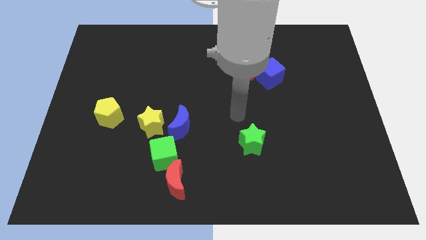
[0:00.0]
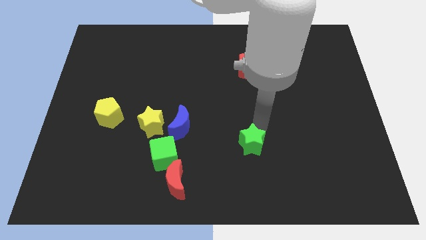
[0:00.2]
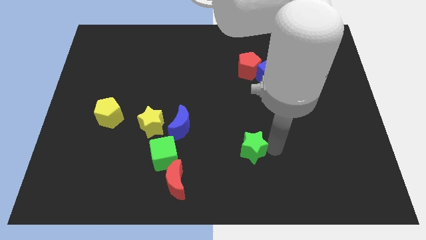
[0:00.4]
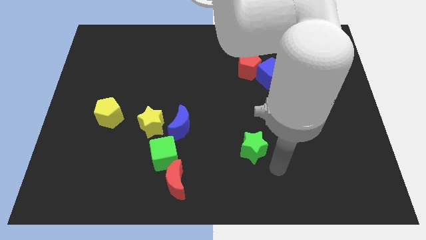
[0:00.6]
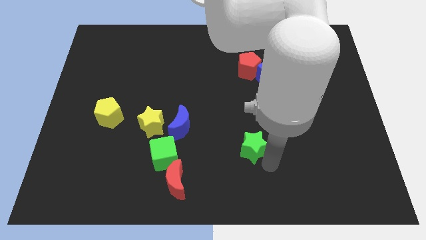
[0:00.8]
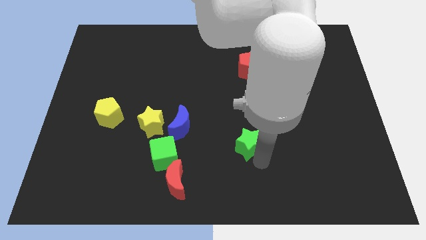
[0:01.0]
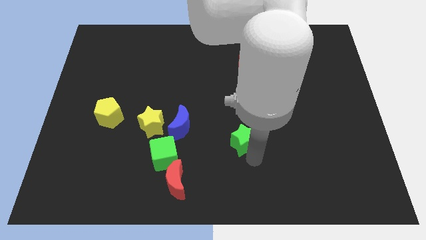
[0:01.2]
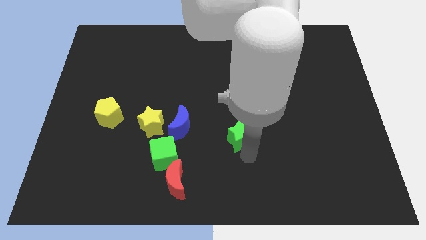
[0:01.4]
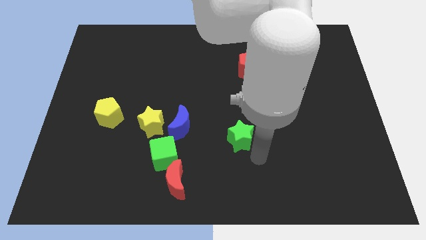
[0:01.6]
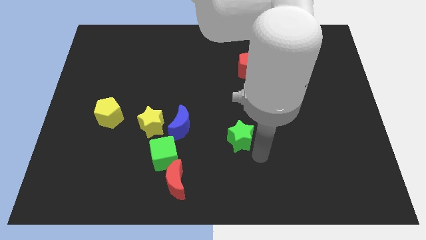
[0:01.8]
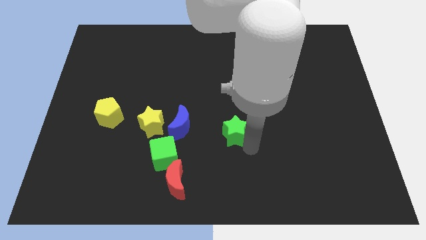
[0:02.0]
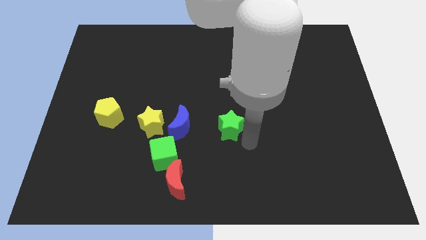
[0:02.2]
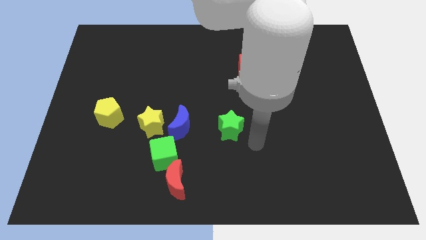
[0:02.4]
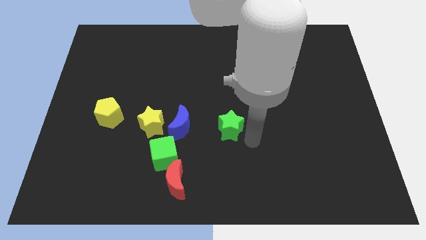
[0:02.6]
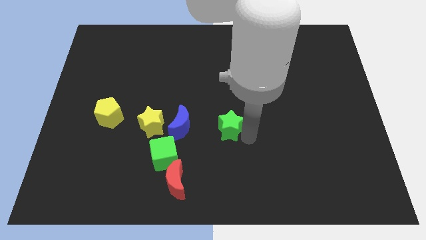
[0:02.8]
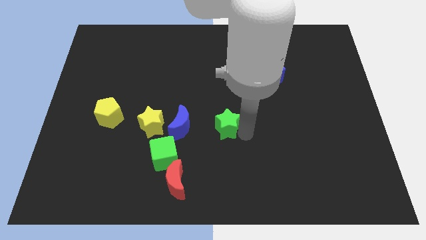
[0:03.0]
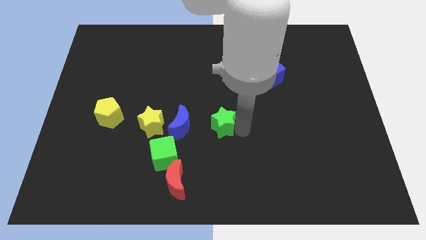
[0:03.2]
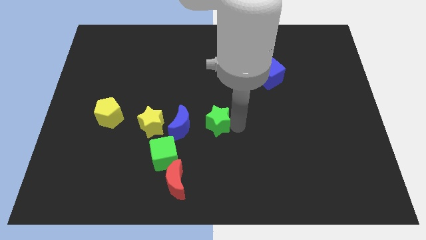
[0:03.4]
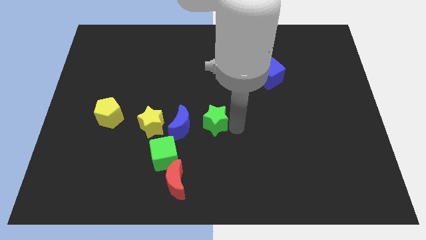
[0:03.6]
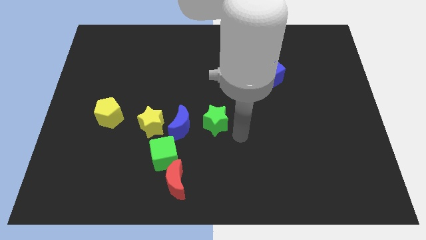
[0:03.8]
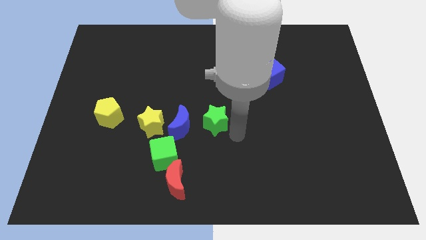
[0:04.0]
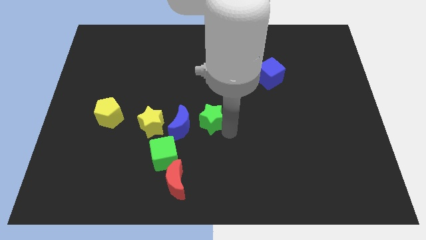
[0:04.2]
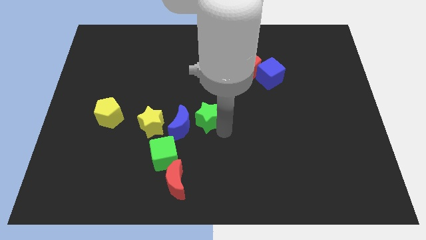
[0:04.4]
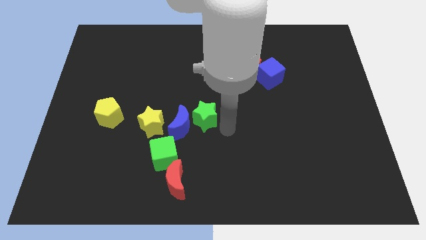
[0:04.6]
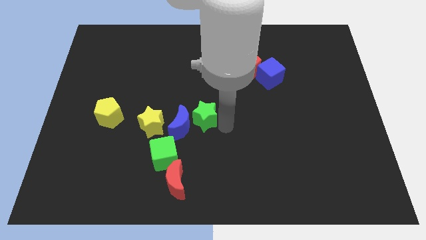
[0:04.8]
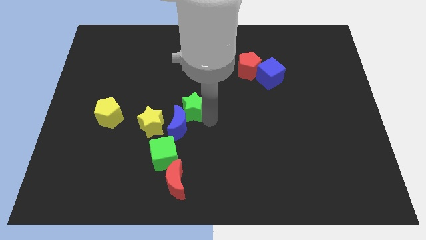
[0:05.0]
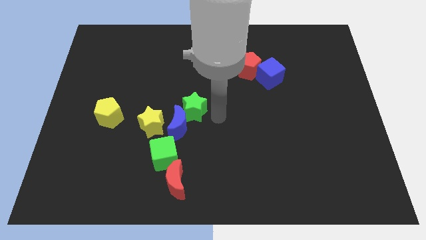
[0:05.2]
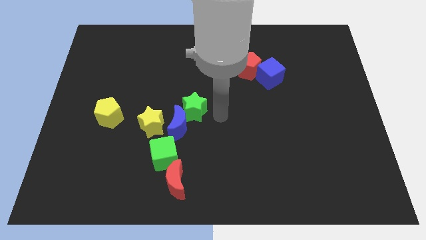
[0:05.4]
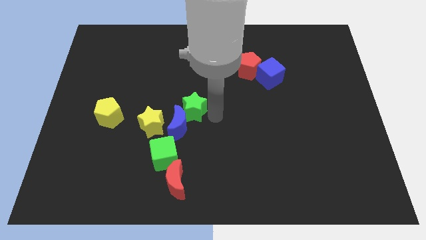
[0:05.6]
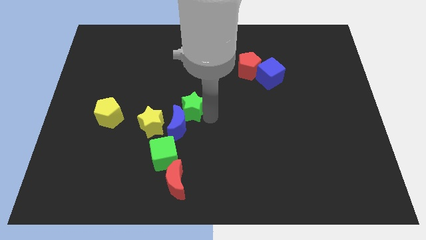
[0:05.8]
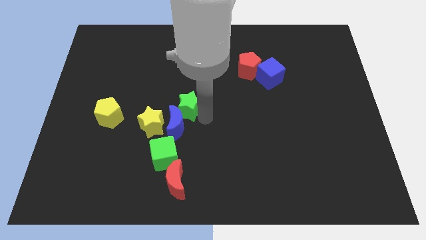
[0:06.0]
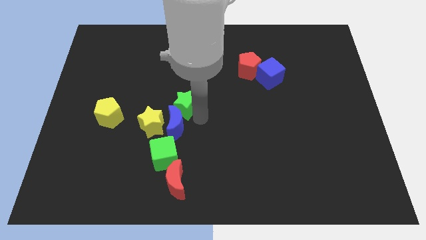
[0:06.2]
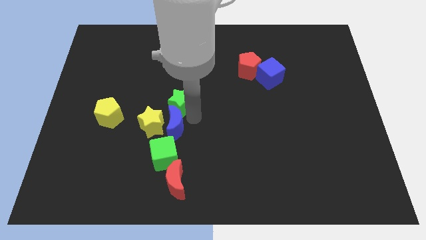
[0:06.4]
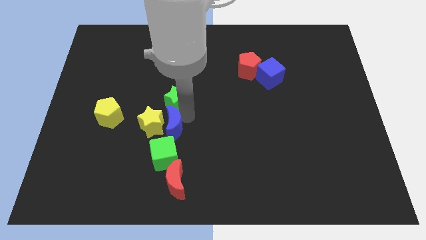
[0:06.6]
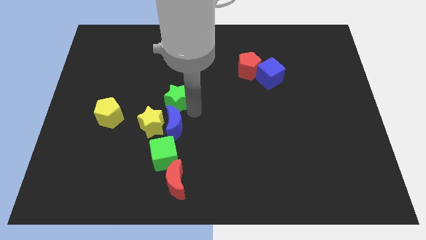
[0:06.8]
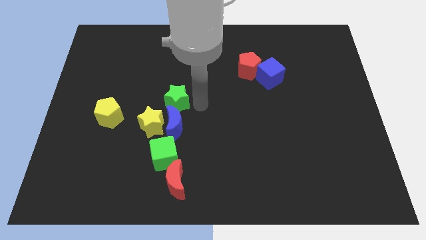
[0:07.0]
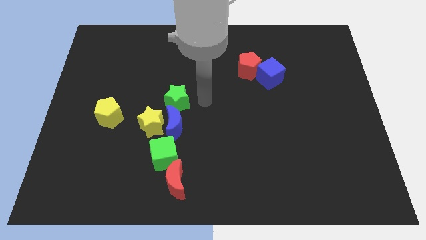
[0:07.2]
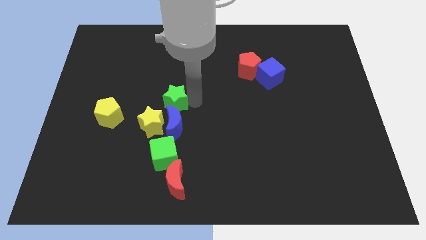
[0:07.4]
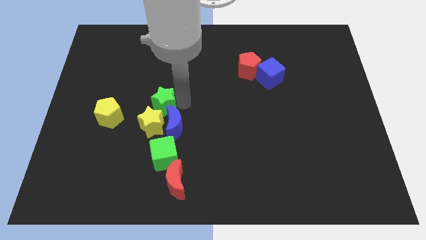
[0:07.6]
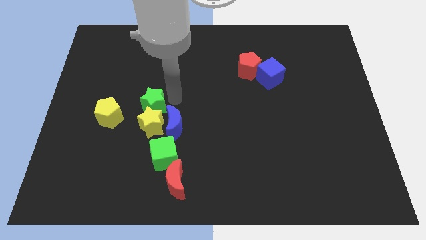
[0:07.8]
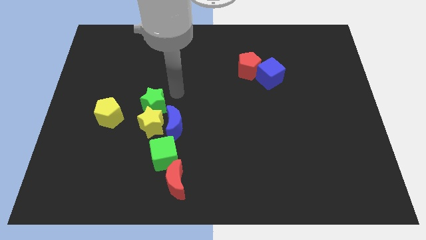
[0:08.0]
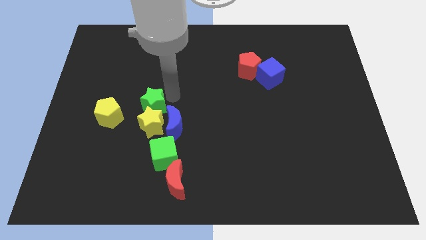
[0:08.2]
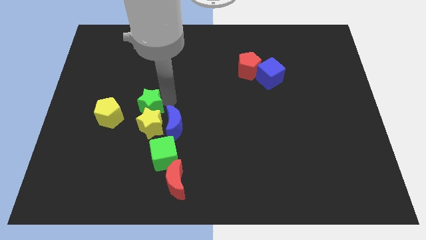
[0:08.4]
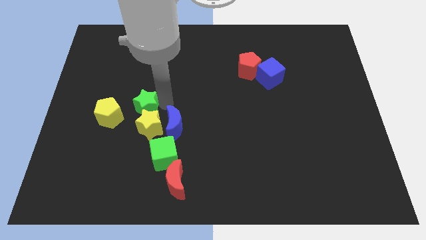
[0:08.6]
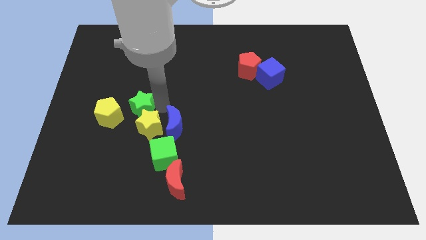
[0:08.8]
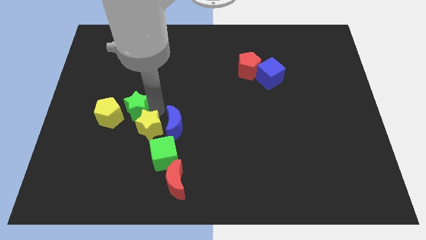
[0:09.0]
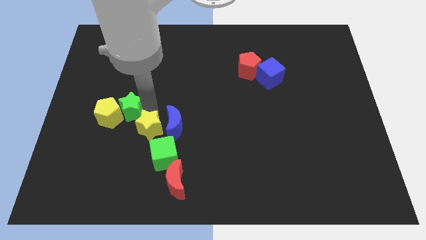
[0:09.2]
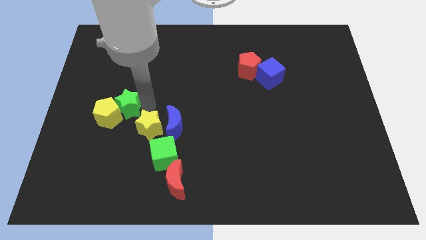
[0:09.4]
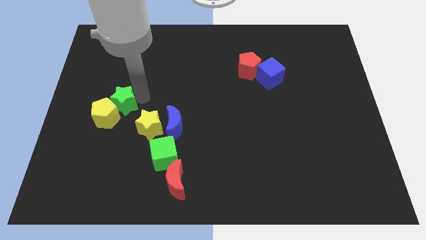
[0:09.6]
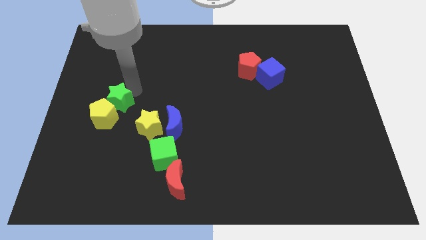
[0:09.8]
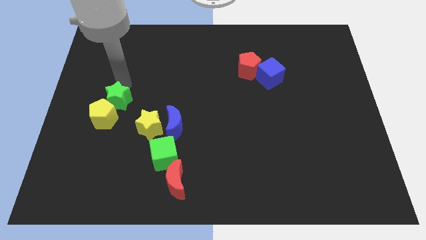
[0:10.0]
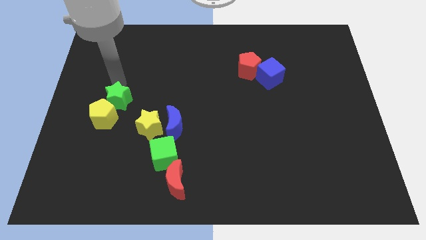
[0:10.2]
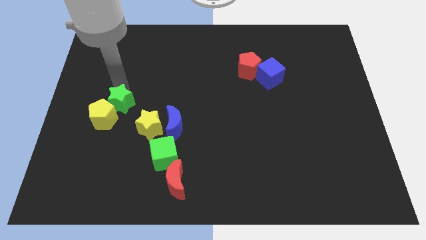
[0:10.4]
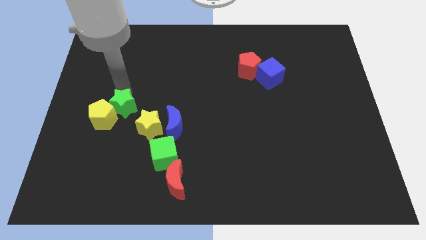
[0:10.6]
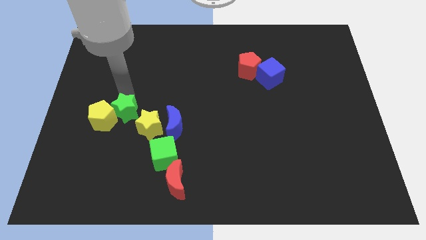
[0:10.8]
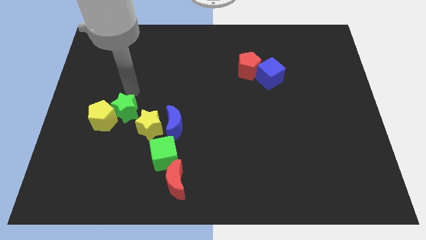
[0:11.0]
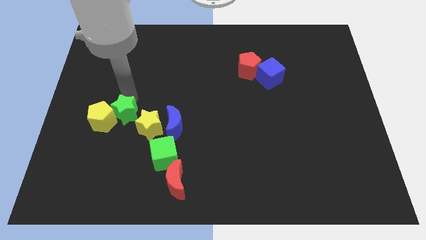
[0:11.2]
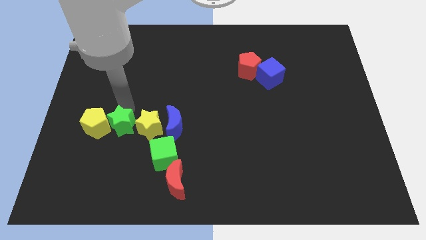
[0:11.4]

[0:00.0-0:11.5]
push the green star to the bottom left of the yellow star

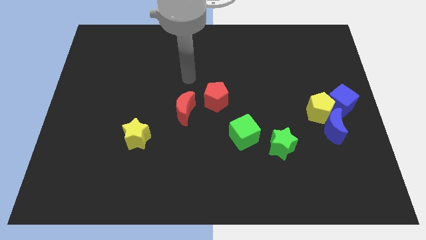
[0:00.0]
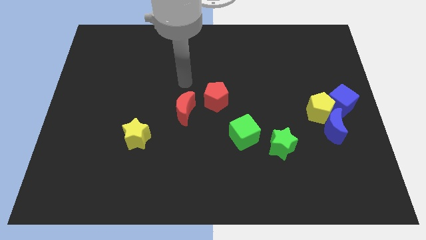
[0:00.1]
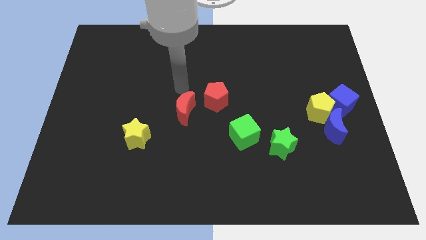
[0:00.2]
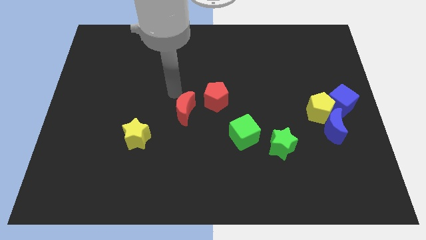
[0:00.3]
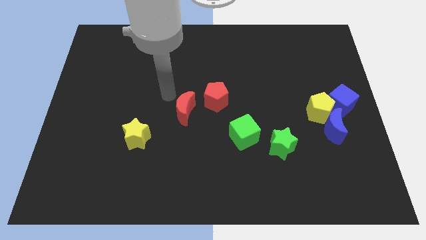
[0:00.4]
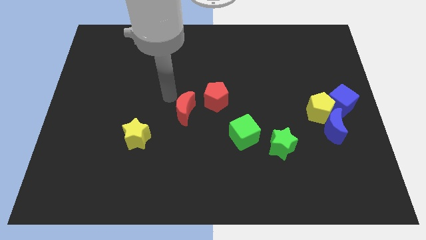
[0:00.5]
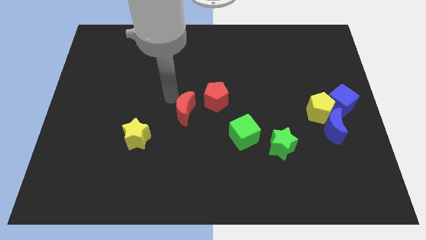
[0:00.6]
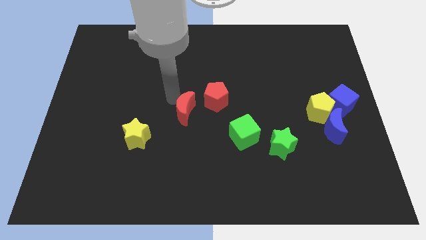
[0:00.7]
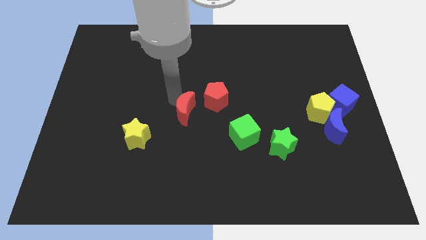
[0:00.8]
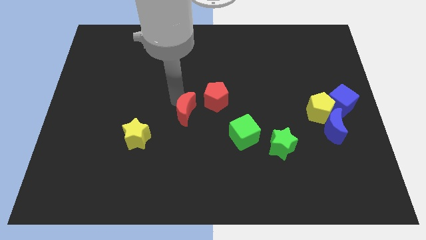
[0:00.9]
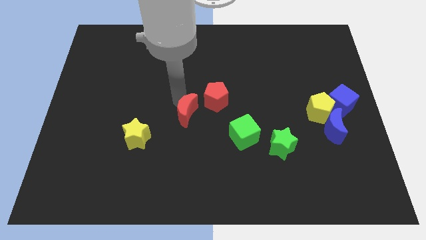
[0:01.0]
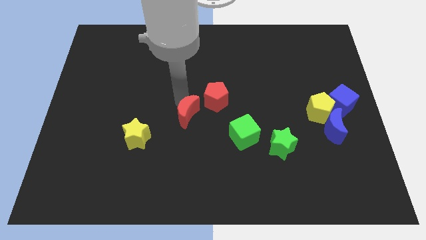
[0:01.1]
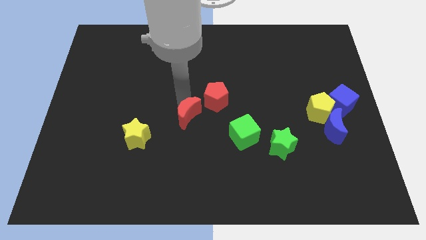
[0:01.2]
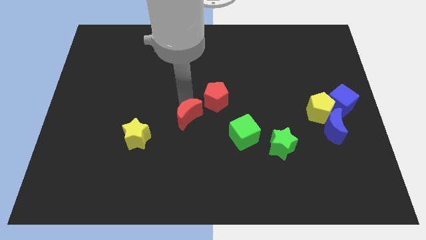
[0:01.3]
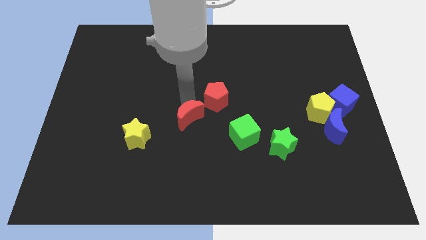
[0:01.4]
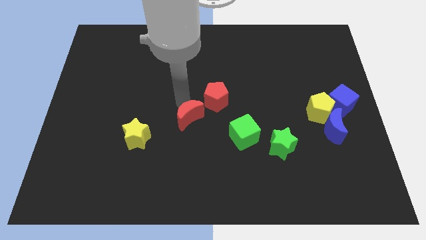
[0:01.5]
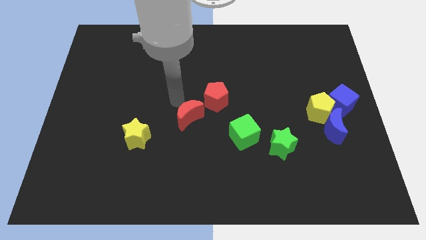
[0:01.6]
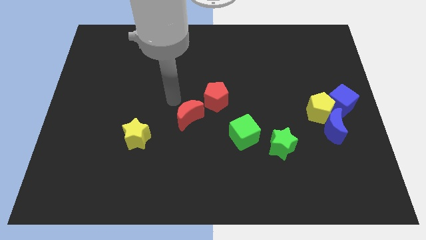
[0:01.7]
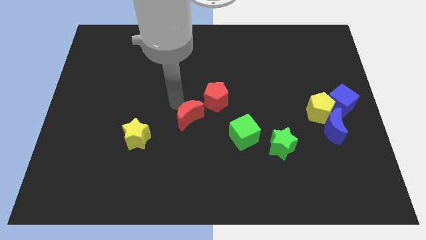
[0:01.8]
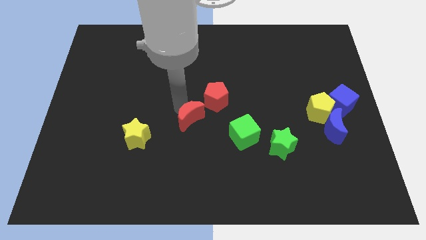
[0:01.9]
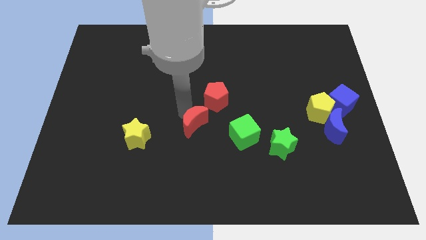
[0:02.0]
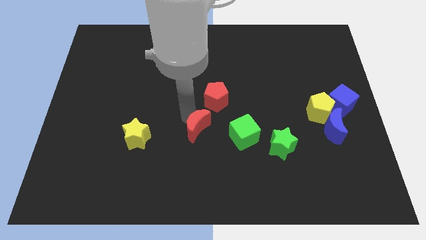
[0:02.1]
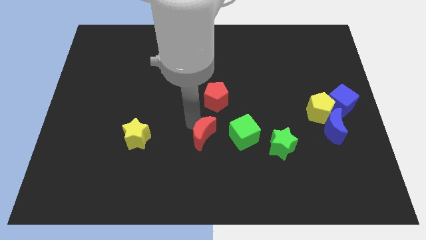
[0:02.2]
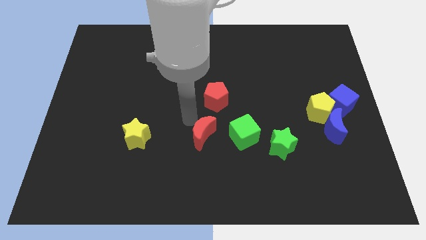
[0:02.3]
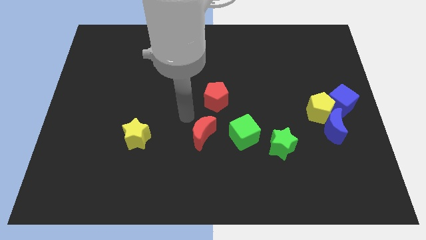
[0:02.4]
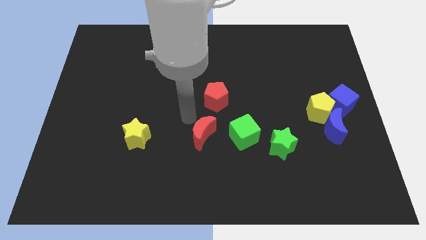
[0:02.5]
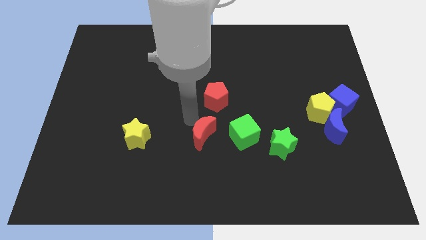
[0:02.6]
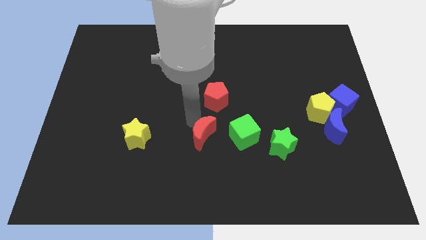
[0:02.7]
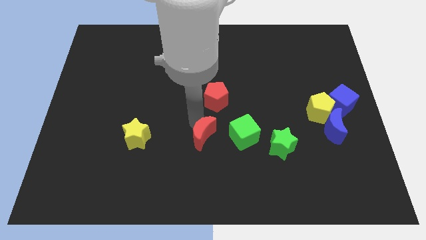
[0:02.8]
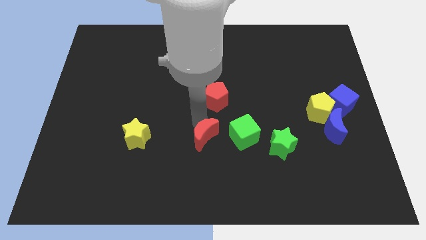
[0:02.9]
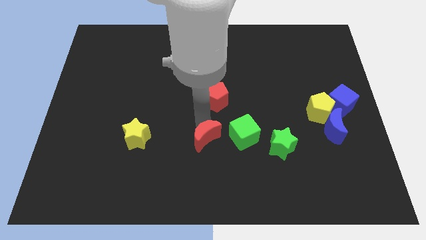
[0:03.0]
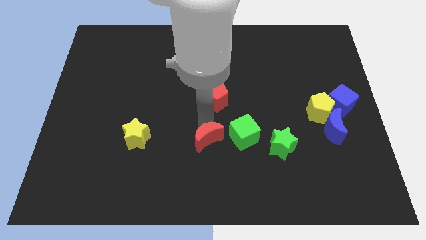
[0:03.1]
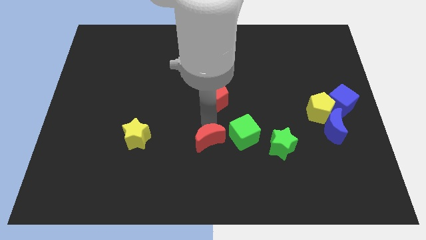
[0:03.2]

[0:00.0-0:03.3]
slide the red moon to the bottom left of the green cube
